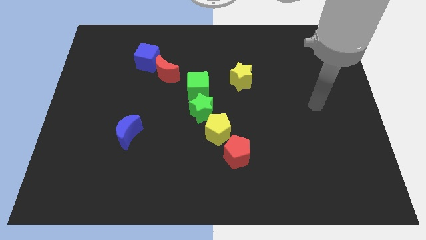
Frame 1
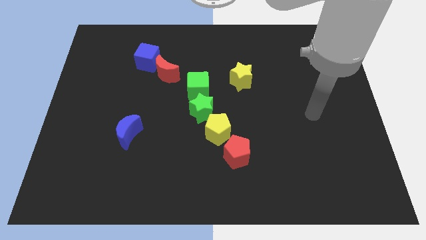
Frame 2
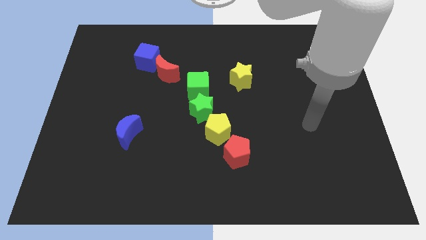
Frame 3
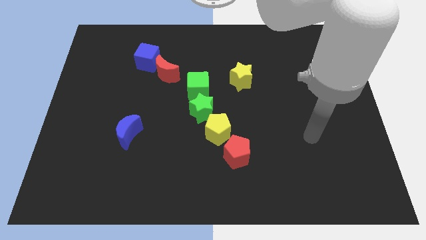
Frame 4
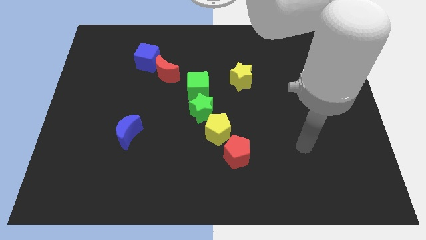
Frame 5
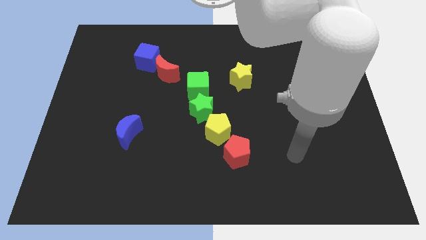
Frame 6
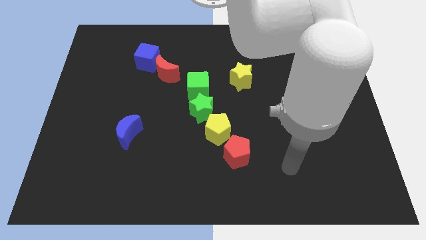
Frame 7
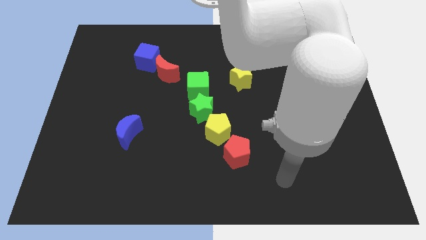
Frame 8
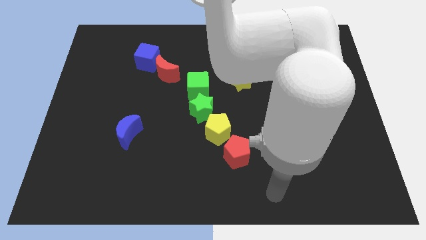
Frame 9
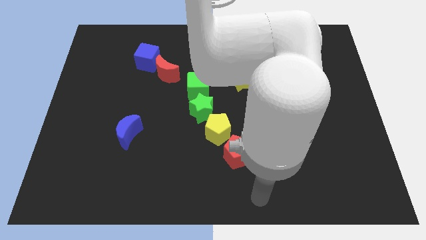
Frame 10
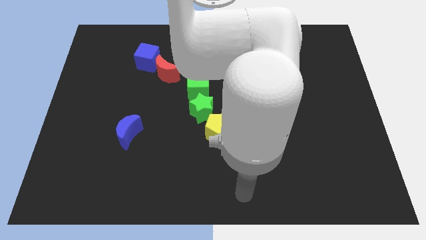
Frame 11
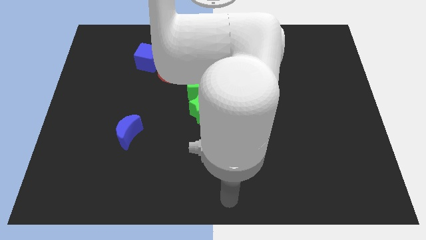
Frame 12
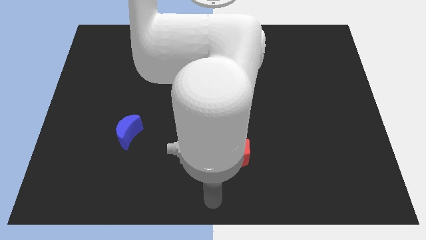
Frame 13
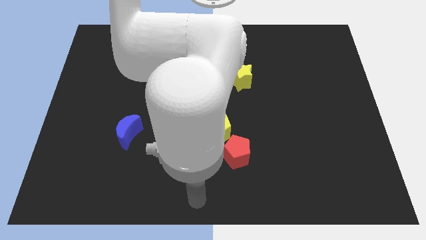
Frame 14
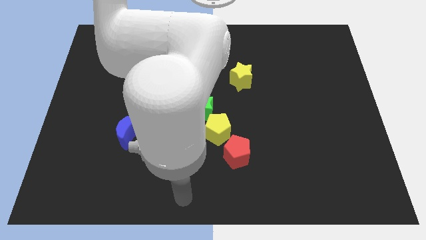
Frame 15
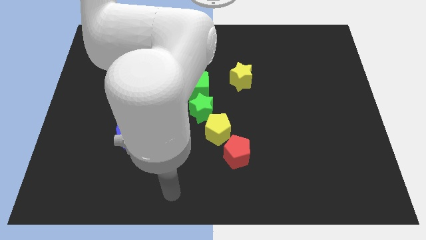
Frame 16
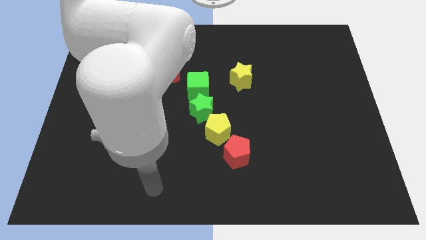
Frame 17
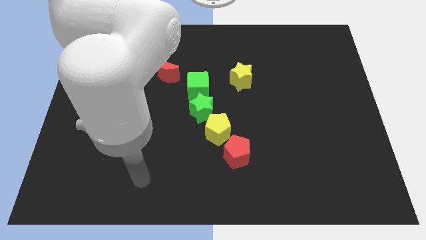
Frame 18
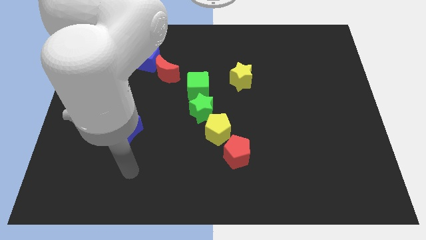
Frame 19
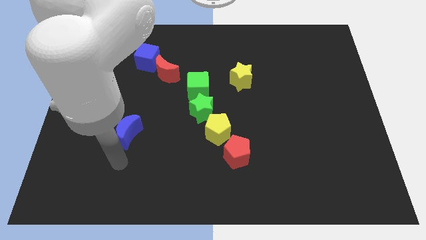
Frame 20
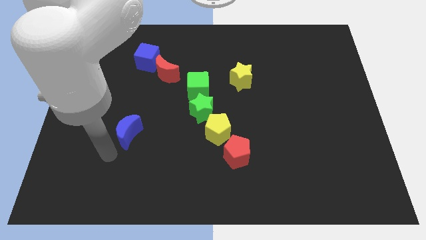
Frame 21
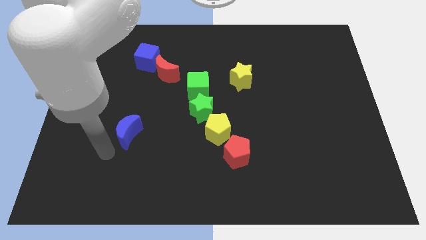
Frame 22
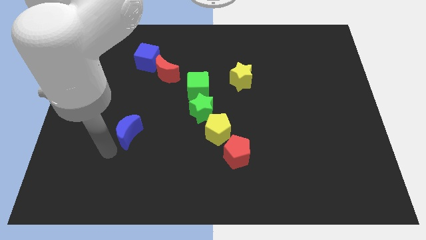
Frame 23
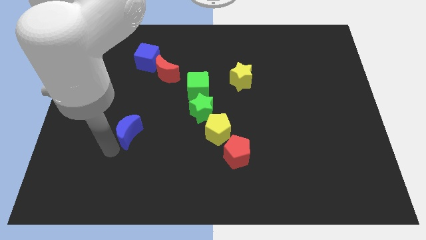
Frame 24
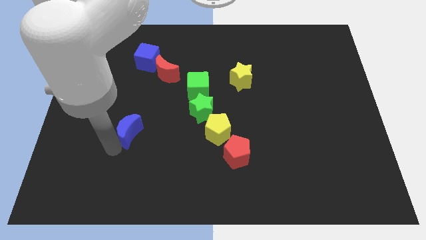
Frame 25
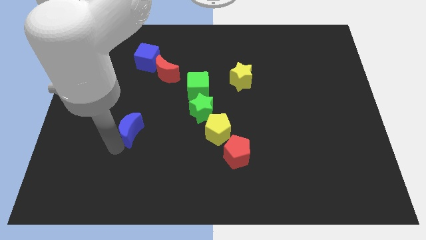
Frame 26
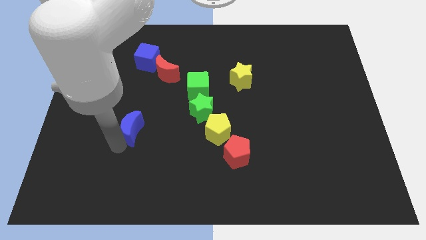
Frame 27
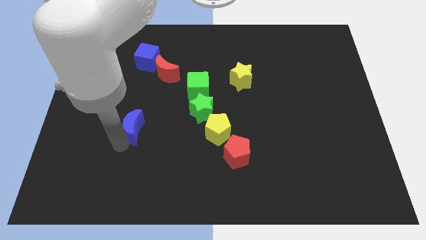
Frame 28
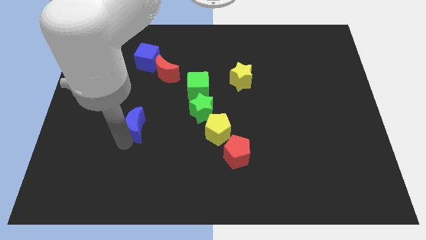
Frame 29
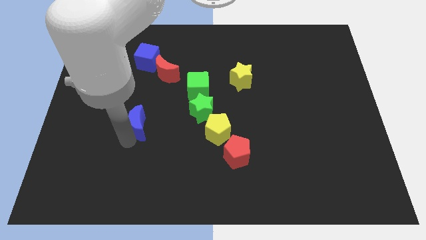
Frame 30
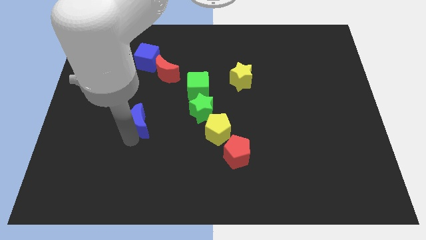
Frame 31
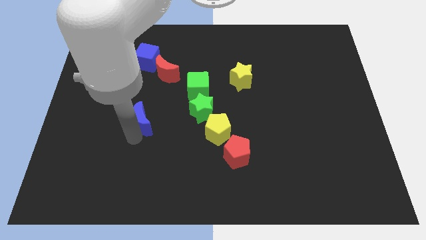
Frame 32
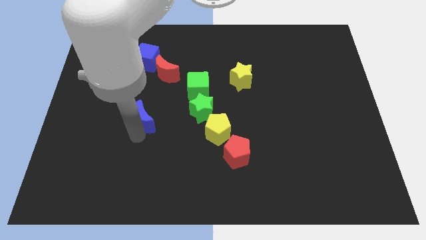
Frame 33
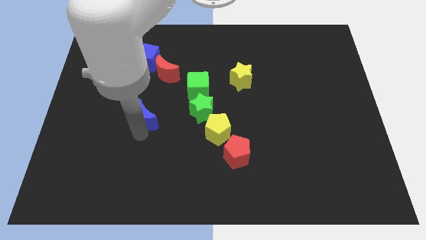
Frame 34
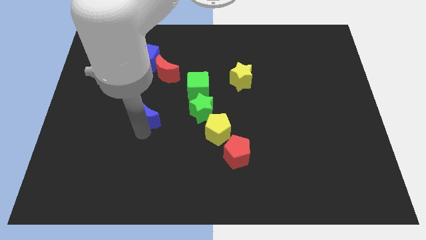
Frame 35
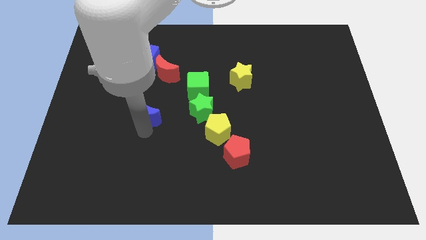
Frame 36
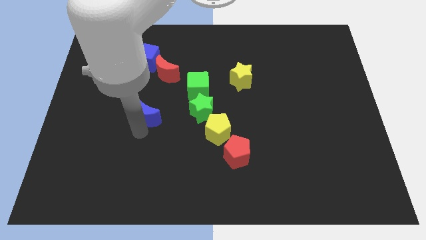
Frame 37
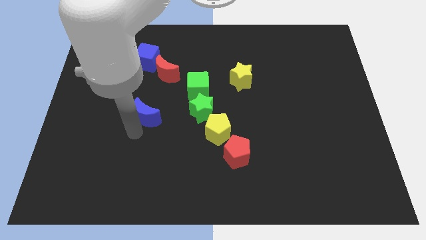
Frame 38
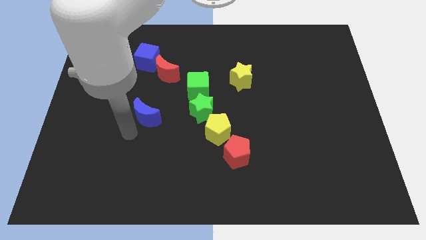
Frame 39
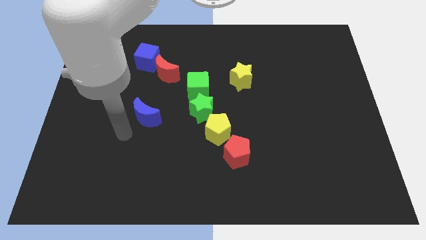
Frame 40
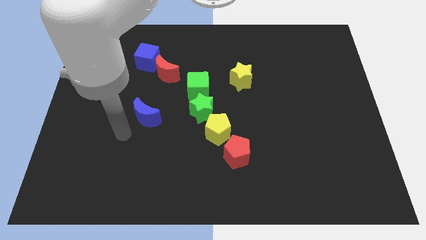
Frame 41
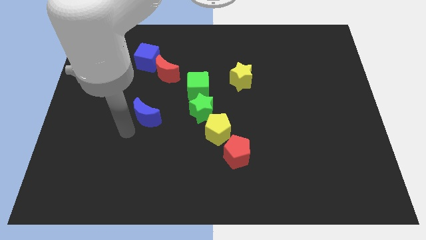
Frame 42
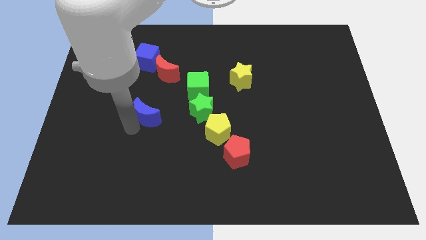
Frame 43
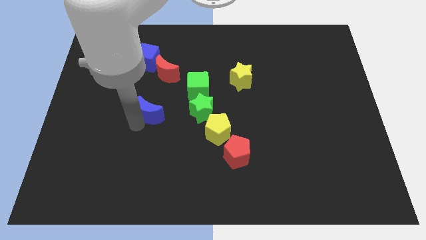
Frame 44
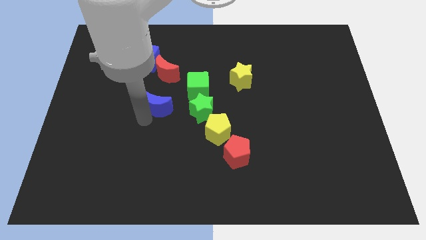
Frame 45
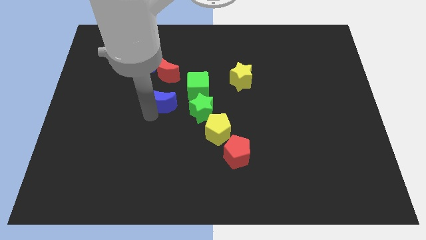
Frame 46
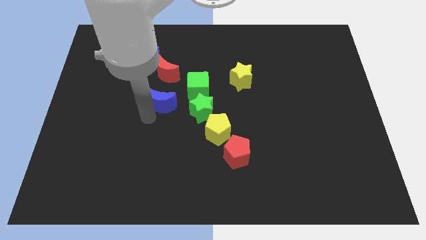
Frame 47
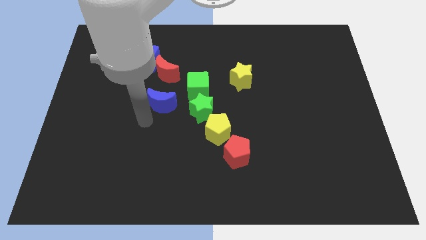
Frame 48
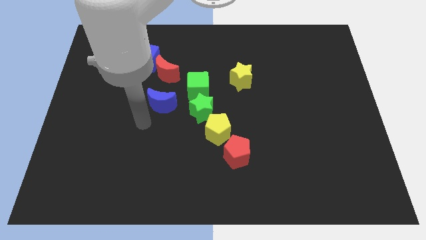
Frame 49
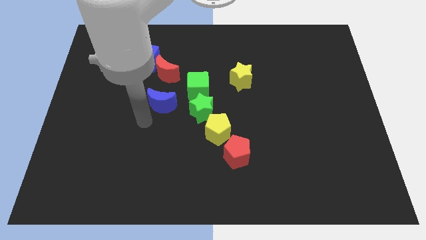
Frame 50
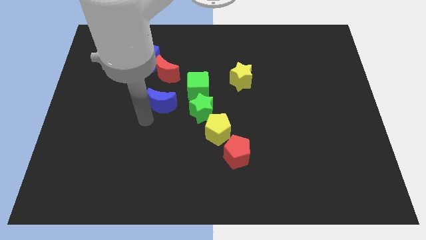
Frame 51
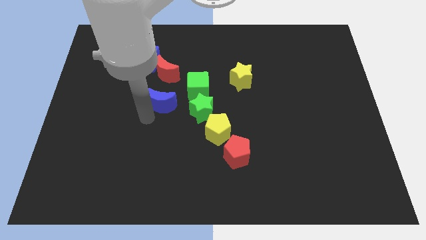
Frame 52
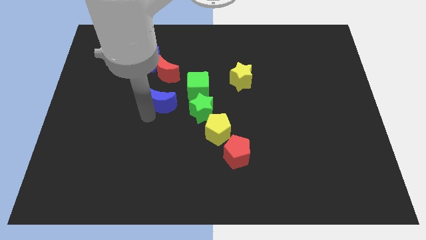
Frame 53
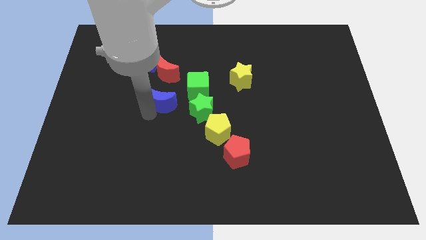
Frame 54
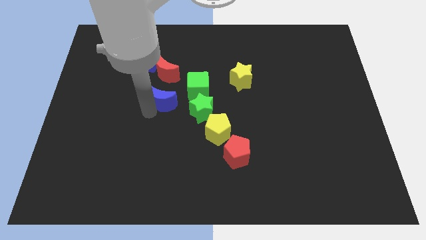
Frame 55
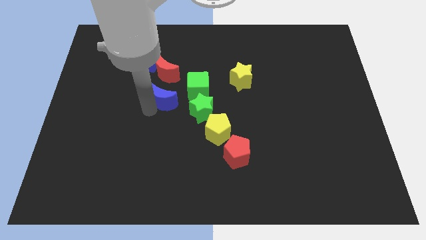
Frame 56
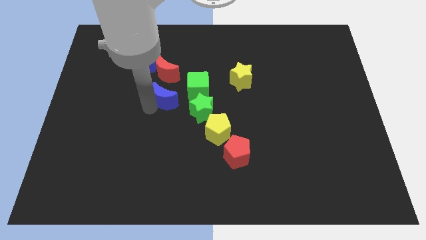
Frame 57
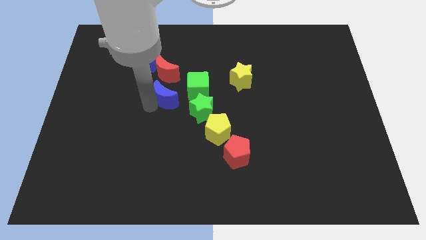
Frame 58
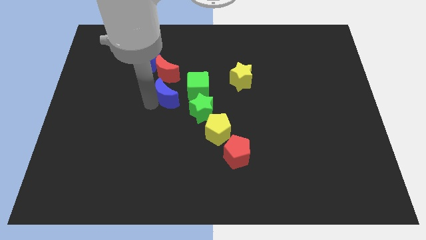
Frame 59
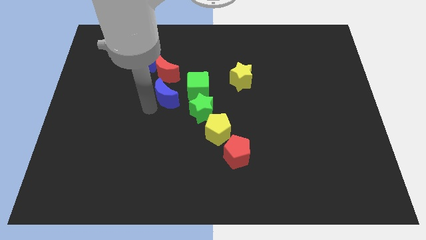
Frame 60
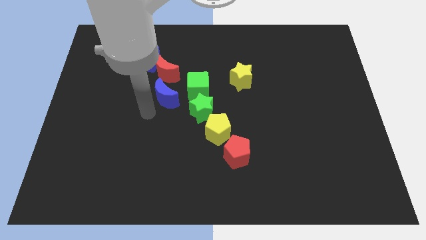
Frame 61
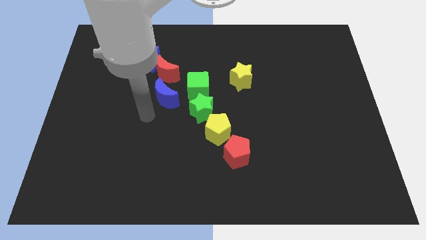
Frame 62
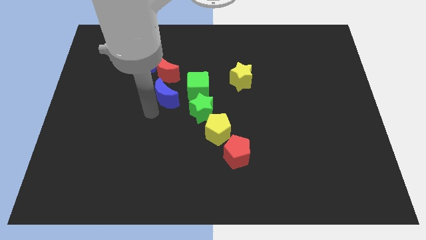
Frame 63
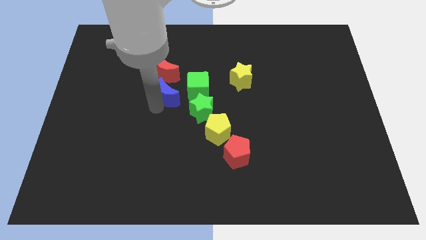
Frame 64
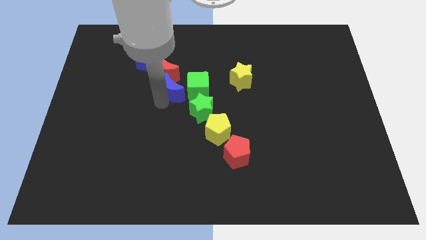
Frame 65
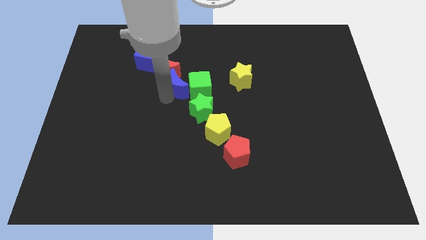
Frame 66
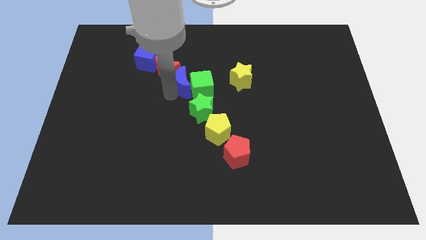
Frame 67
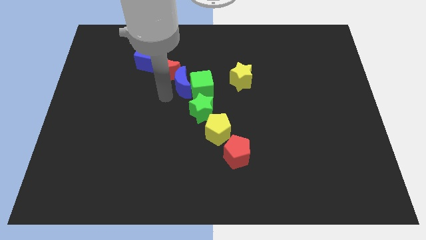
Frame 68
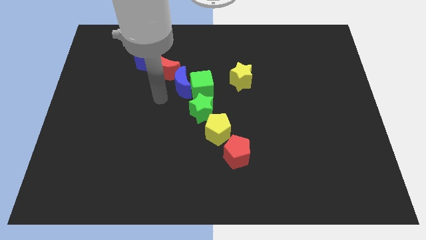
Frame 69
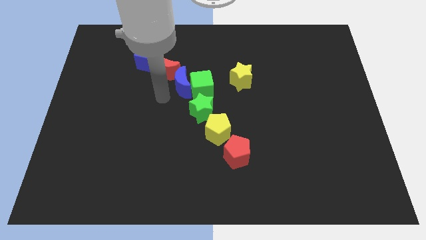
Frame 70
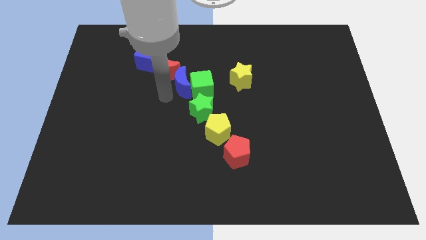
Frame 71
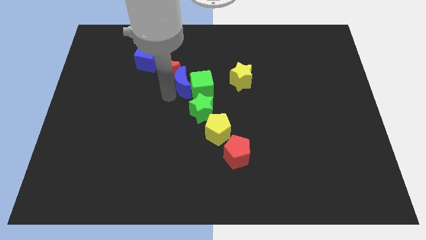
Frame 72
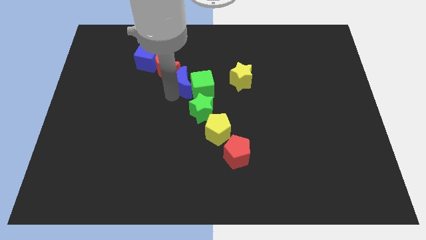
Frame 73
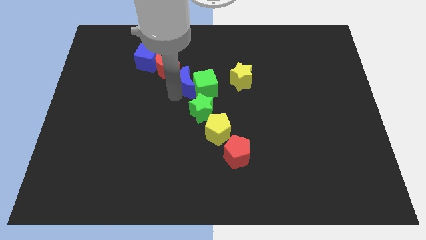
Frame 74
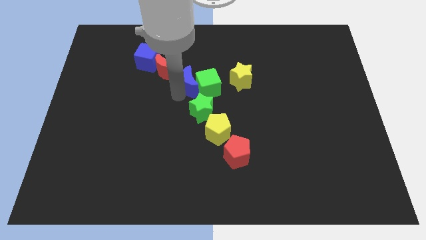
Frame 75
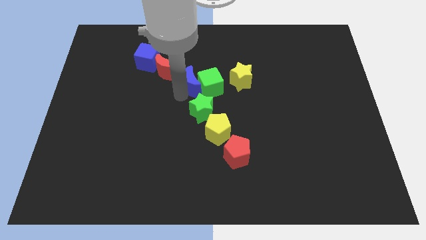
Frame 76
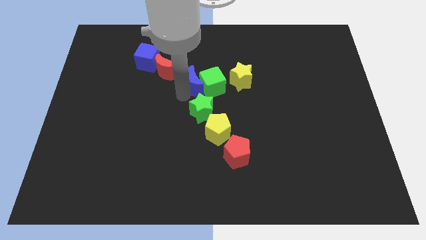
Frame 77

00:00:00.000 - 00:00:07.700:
move the blue moon diagonally upwards and to the right

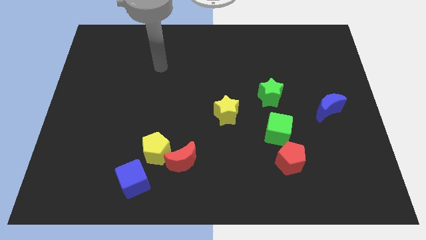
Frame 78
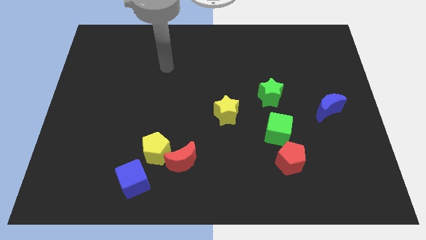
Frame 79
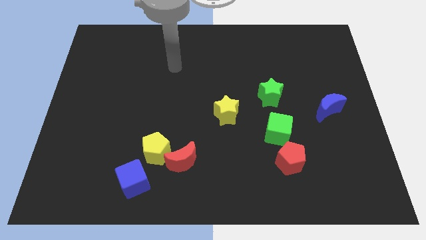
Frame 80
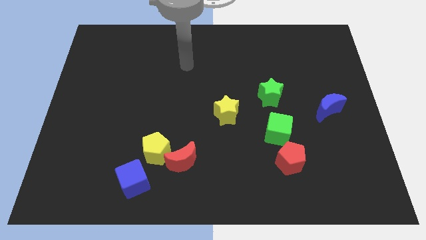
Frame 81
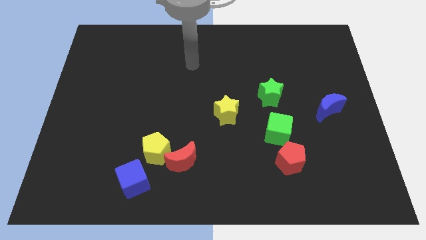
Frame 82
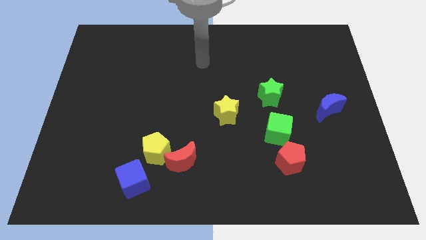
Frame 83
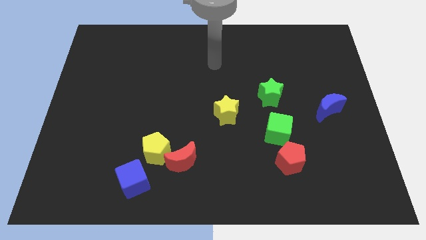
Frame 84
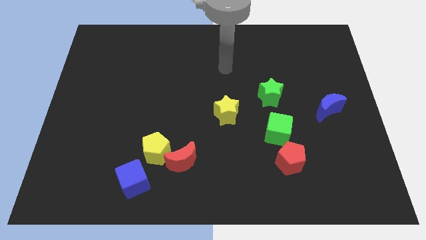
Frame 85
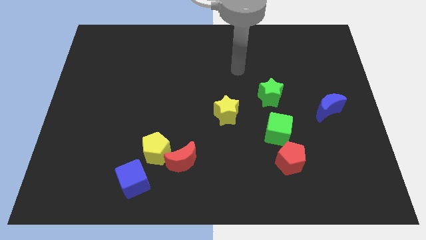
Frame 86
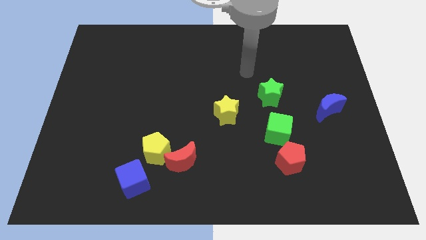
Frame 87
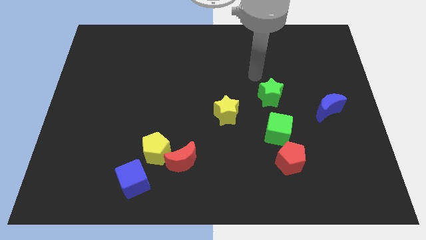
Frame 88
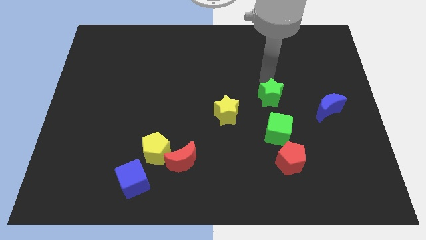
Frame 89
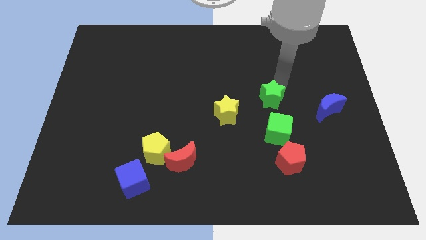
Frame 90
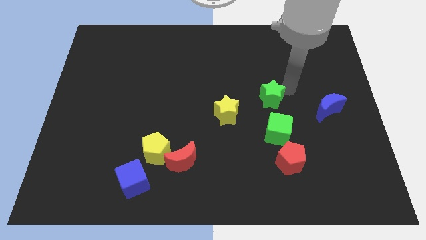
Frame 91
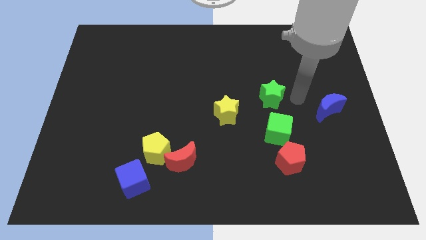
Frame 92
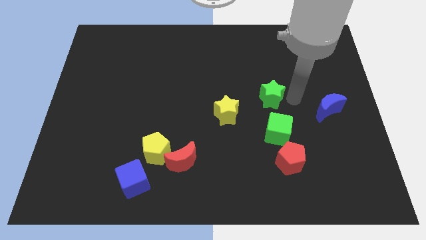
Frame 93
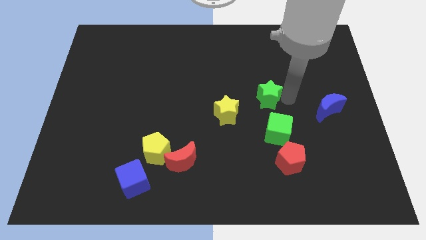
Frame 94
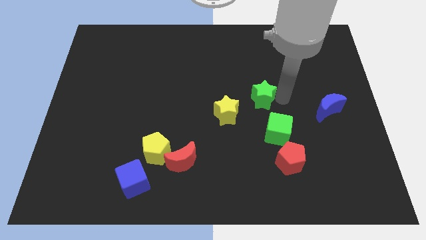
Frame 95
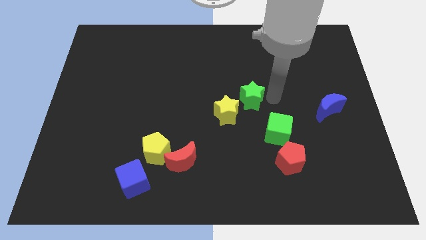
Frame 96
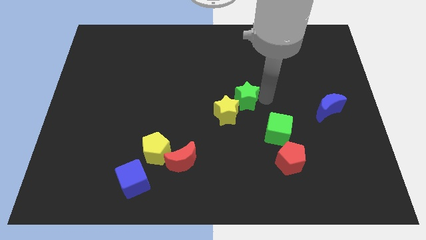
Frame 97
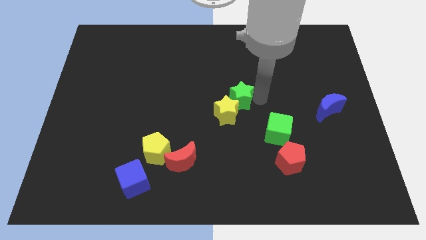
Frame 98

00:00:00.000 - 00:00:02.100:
slide the green star to the left slightly
